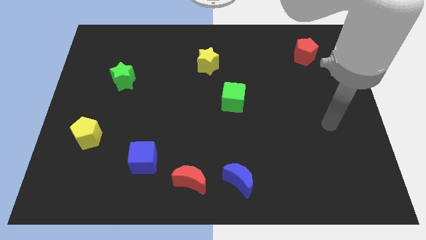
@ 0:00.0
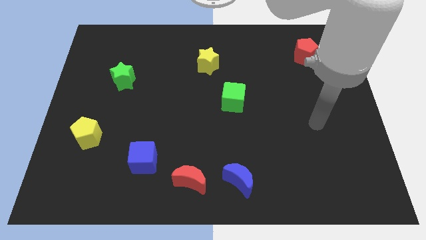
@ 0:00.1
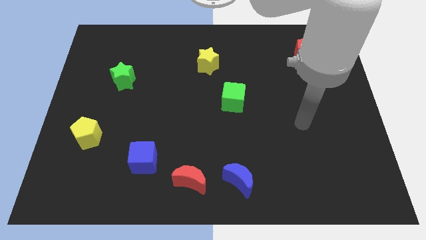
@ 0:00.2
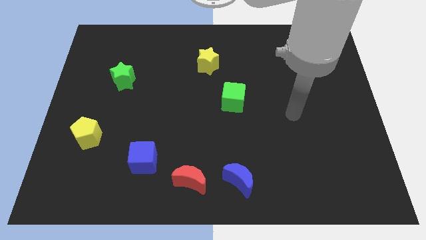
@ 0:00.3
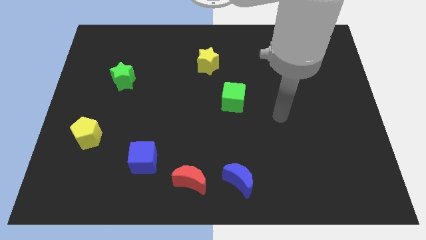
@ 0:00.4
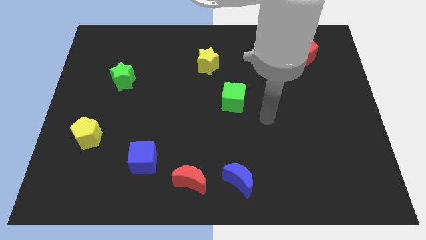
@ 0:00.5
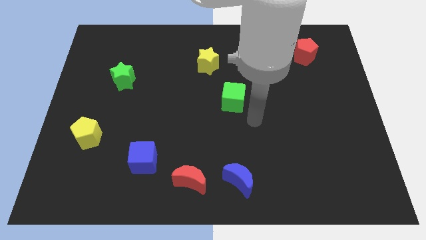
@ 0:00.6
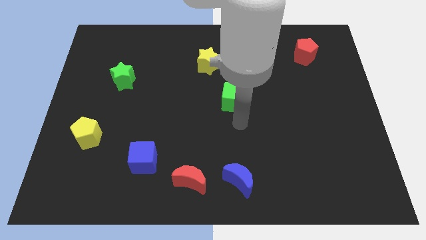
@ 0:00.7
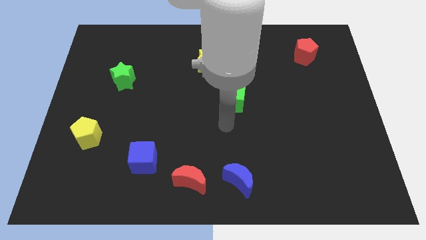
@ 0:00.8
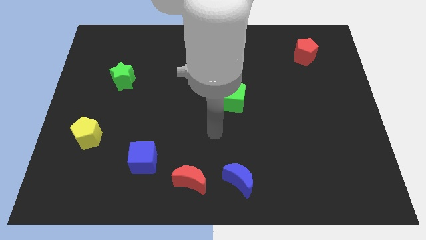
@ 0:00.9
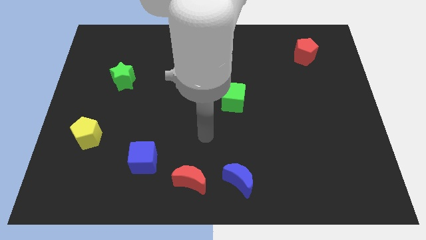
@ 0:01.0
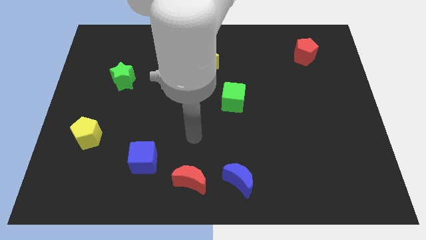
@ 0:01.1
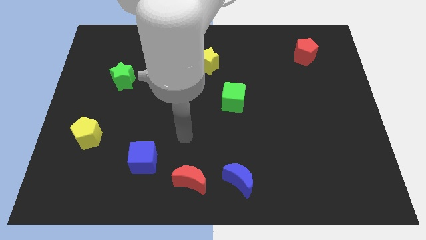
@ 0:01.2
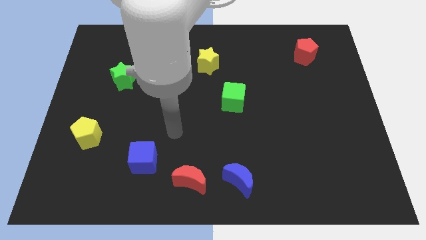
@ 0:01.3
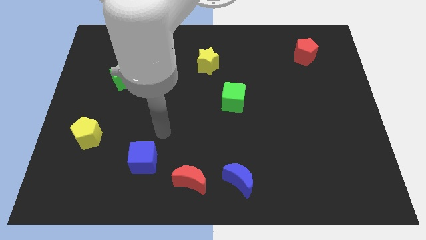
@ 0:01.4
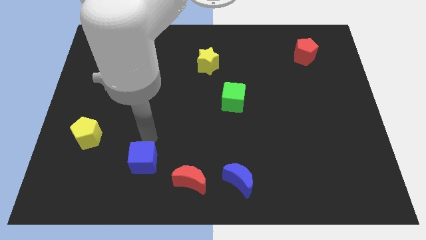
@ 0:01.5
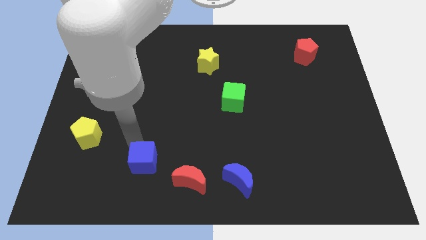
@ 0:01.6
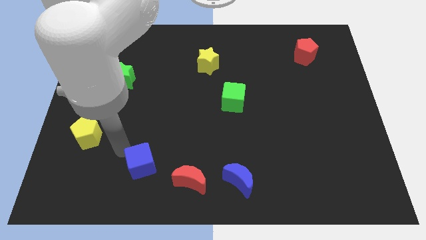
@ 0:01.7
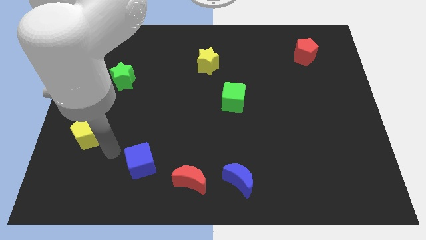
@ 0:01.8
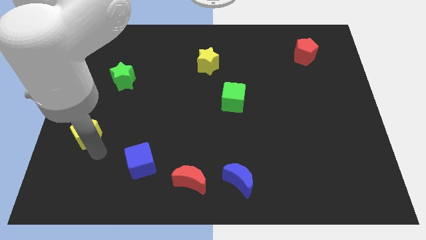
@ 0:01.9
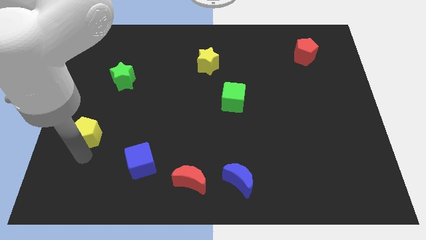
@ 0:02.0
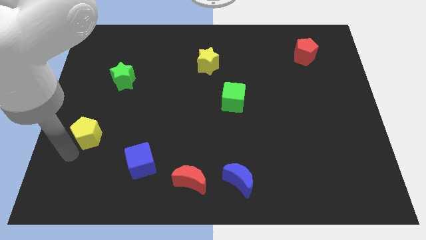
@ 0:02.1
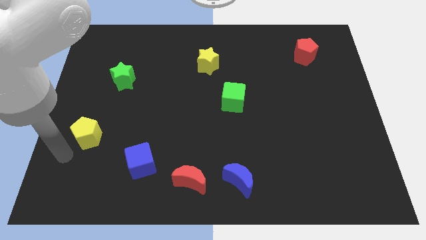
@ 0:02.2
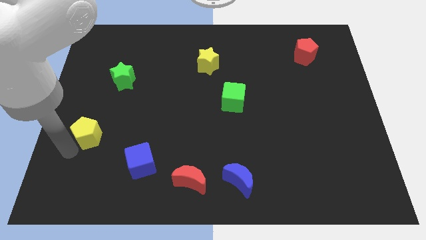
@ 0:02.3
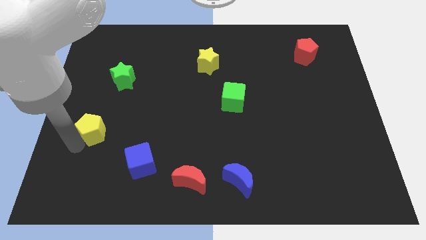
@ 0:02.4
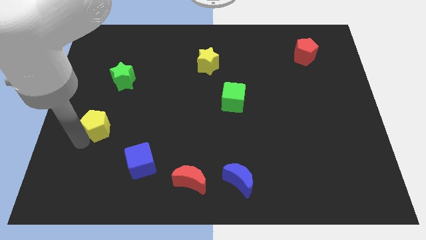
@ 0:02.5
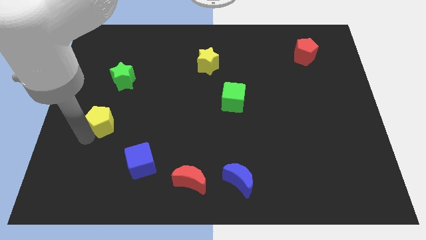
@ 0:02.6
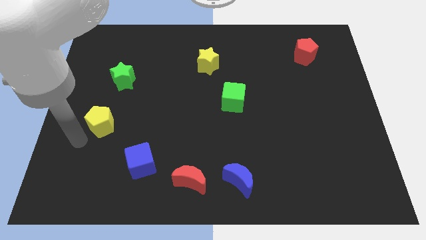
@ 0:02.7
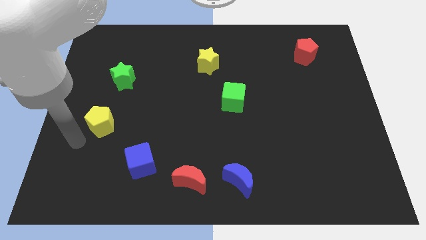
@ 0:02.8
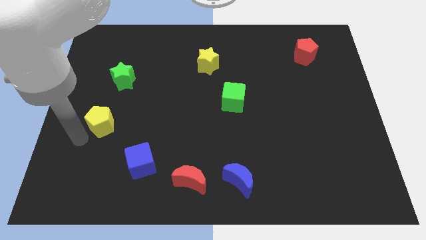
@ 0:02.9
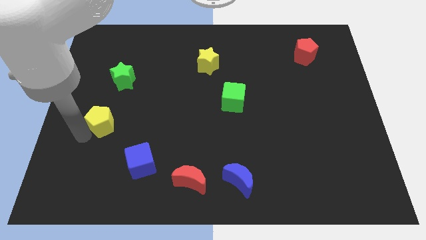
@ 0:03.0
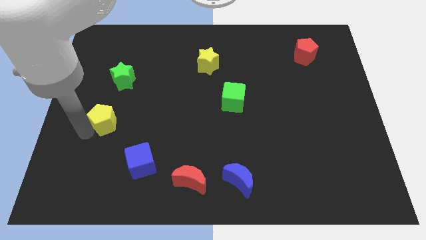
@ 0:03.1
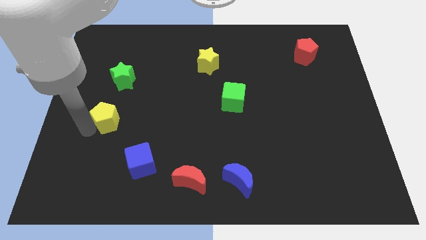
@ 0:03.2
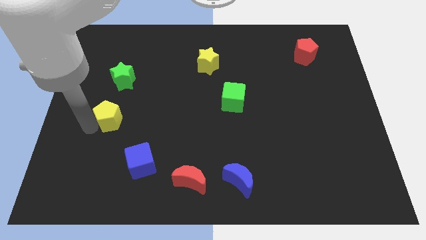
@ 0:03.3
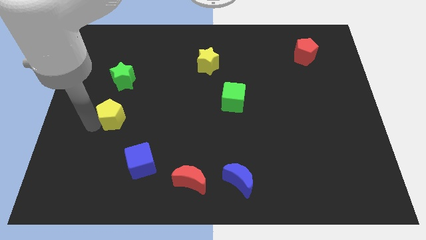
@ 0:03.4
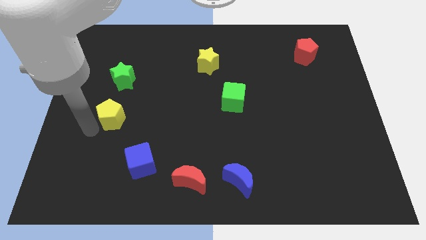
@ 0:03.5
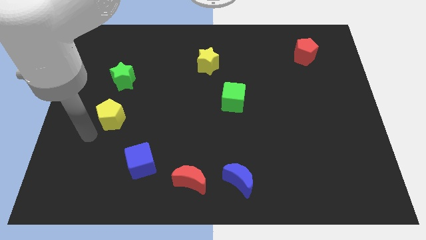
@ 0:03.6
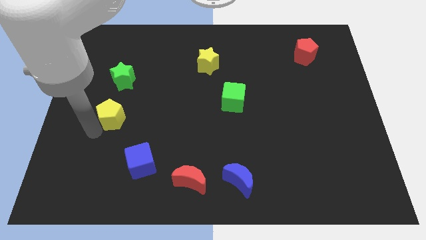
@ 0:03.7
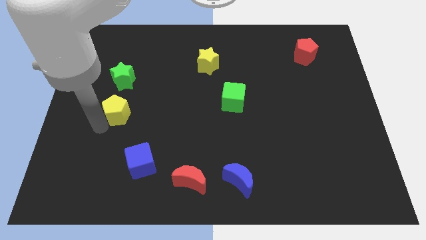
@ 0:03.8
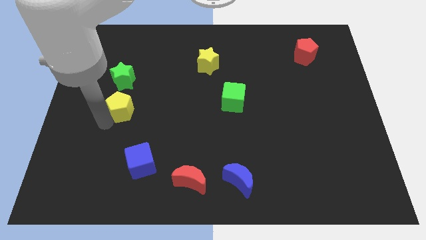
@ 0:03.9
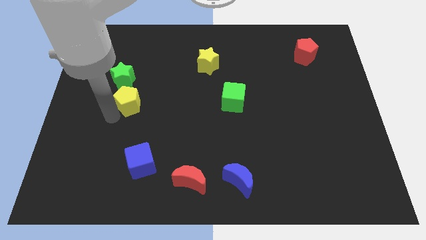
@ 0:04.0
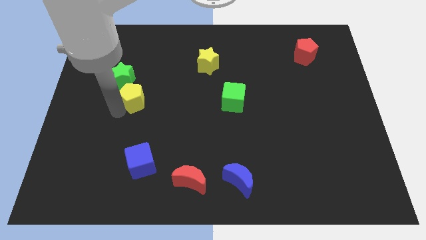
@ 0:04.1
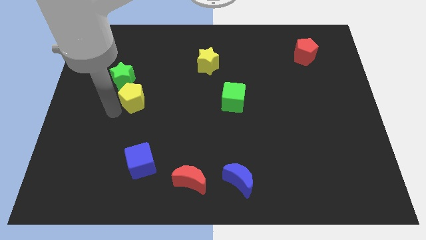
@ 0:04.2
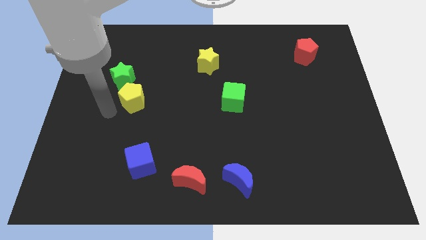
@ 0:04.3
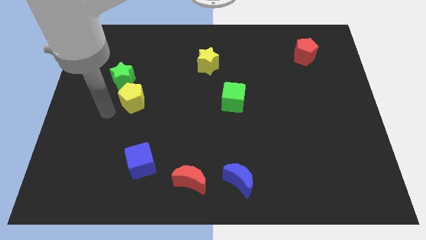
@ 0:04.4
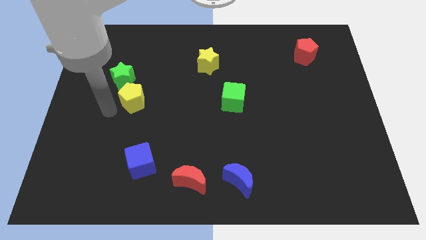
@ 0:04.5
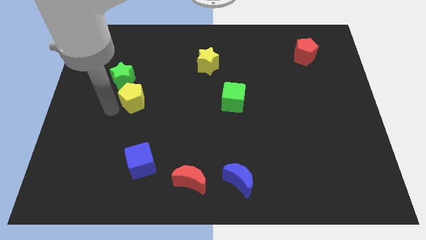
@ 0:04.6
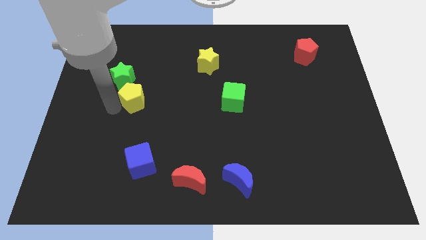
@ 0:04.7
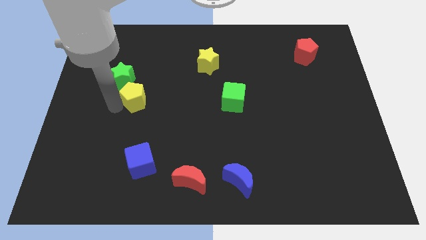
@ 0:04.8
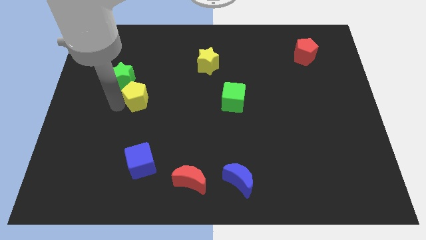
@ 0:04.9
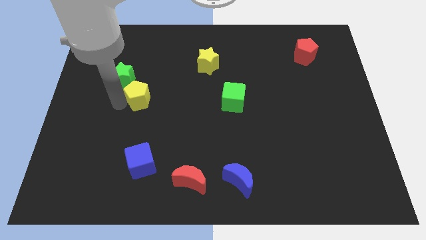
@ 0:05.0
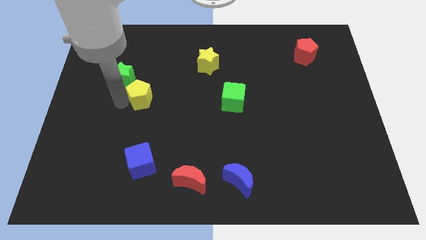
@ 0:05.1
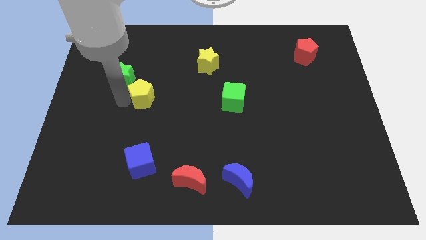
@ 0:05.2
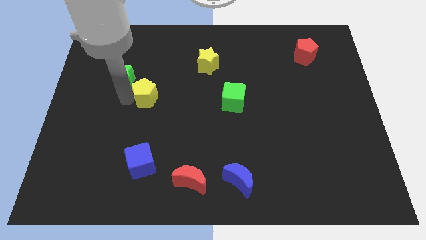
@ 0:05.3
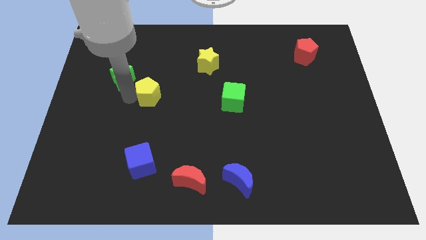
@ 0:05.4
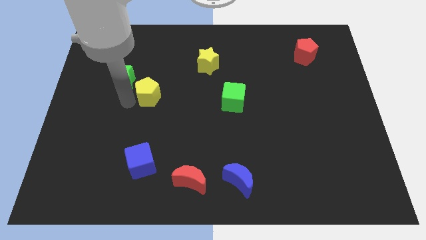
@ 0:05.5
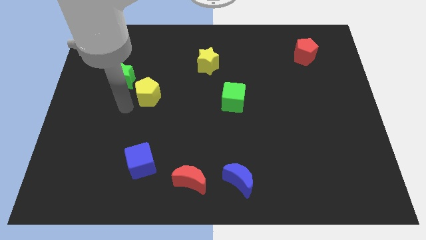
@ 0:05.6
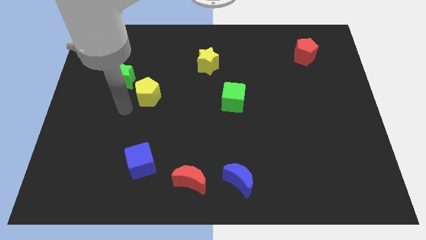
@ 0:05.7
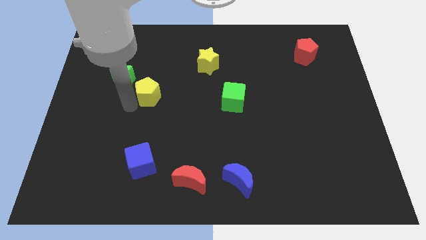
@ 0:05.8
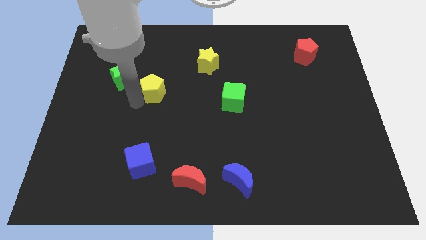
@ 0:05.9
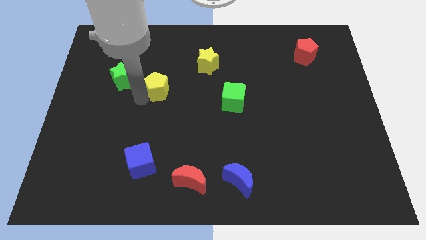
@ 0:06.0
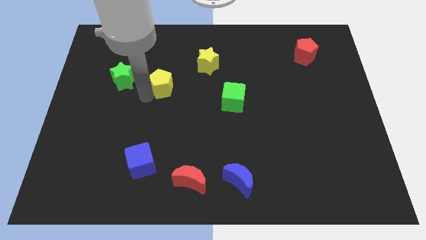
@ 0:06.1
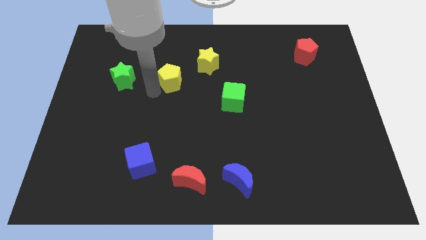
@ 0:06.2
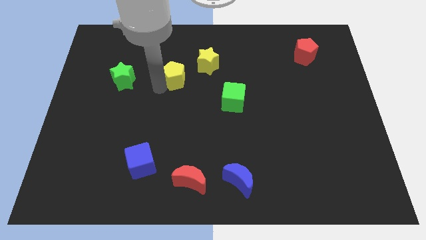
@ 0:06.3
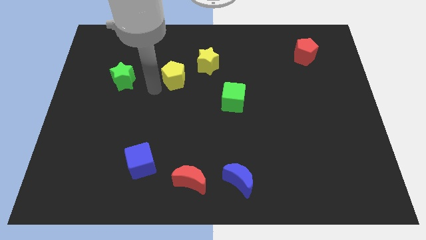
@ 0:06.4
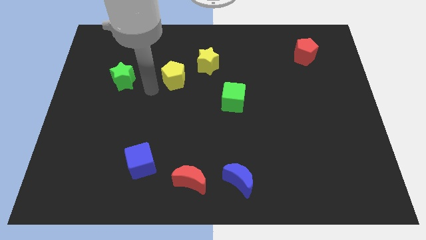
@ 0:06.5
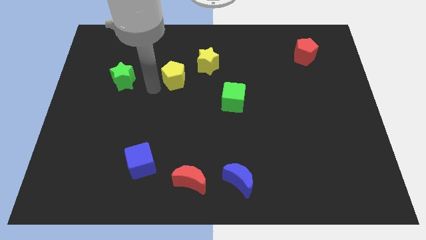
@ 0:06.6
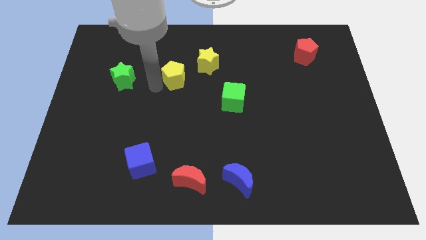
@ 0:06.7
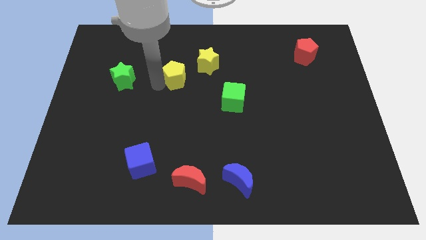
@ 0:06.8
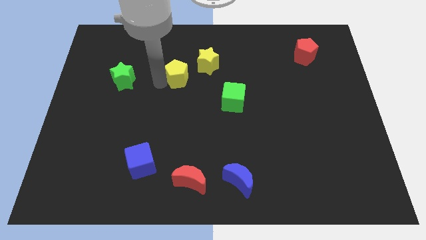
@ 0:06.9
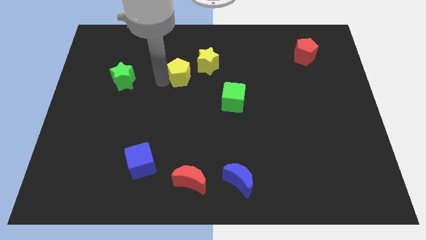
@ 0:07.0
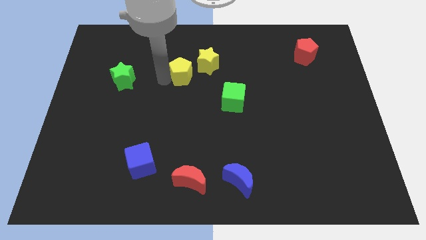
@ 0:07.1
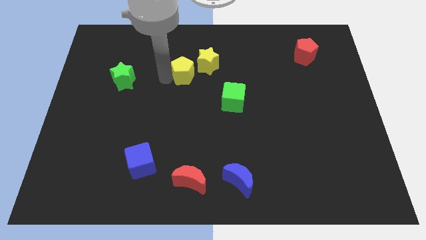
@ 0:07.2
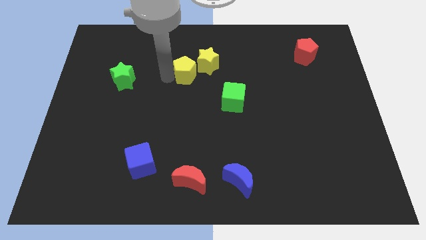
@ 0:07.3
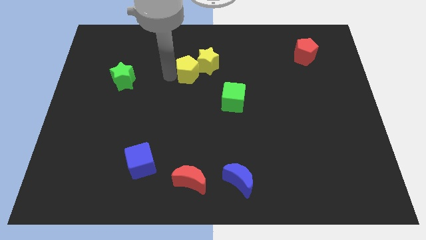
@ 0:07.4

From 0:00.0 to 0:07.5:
push the yellow pentagon towards the yellow star
